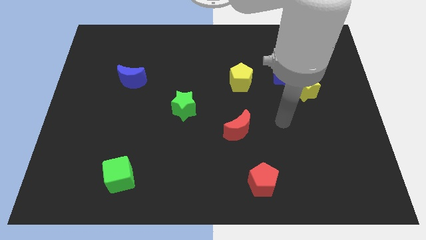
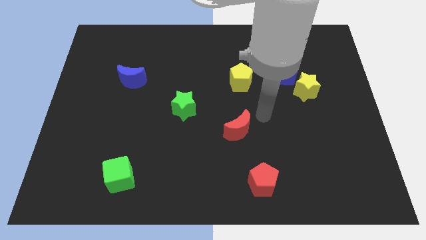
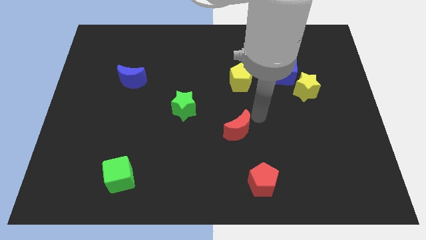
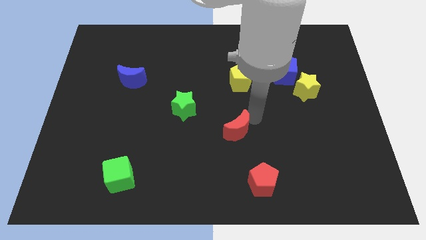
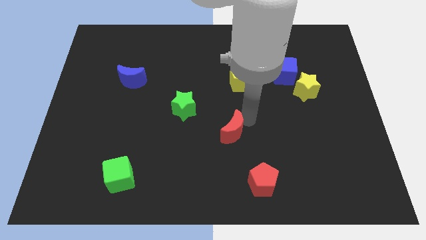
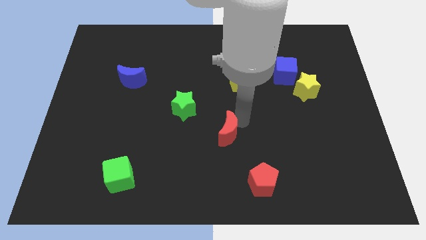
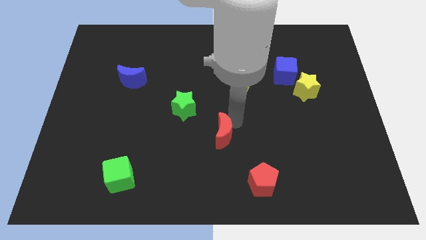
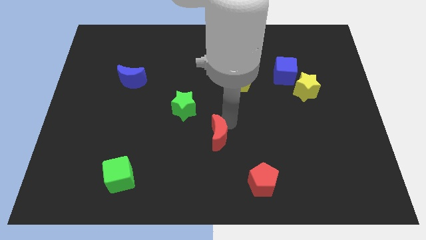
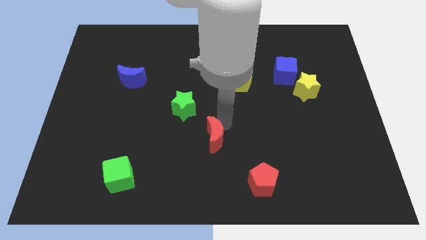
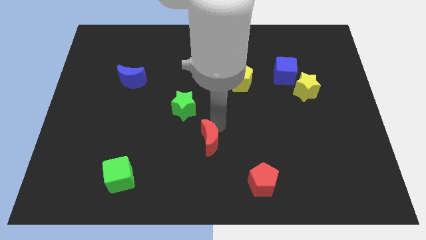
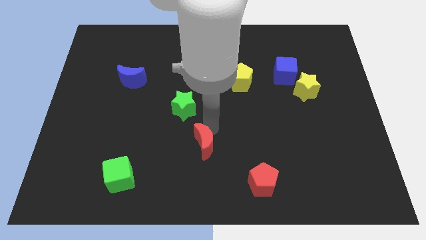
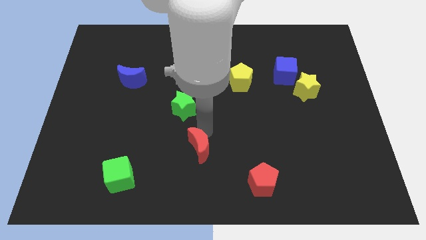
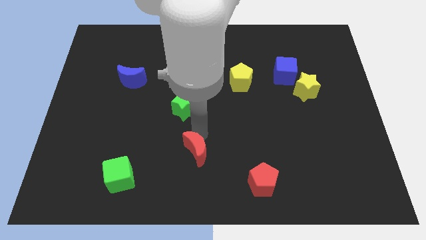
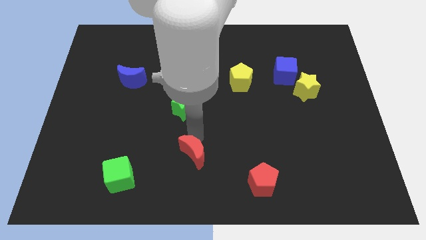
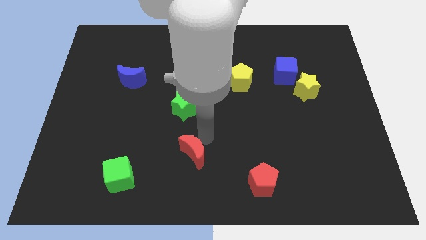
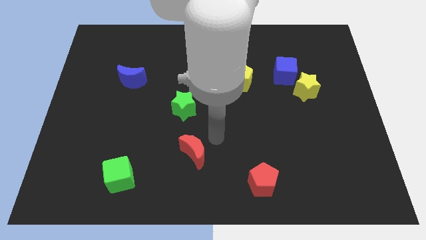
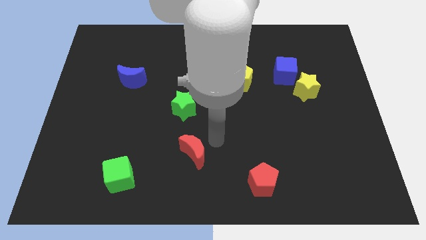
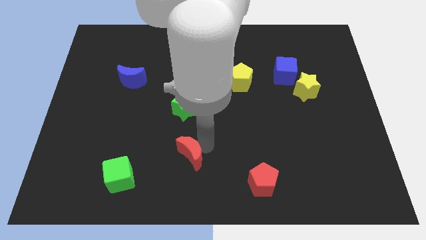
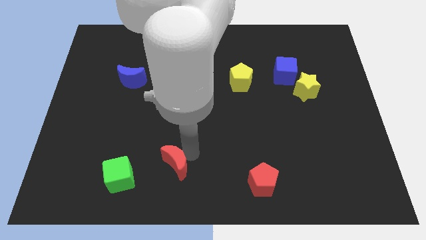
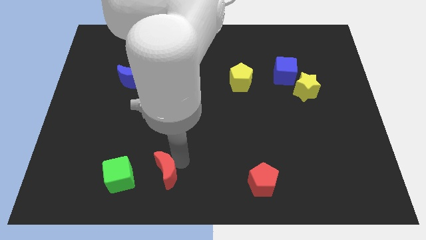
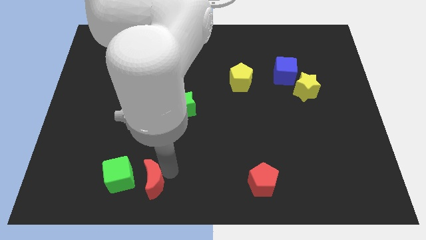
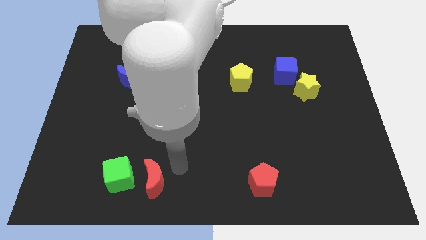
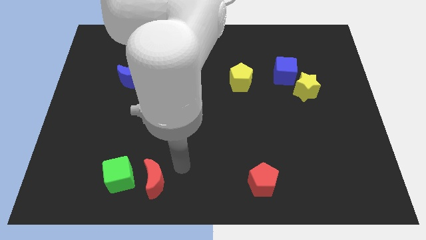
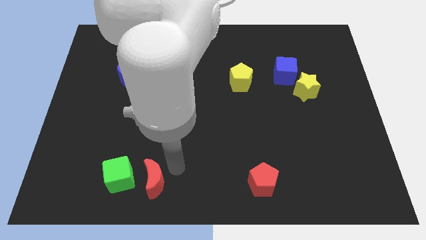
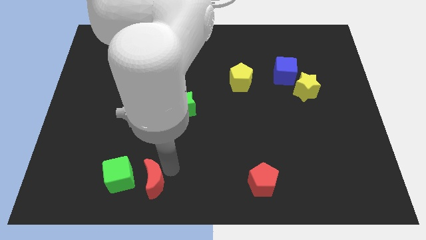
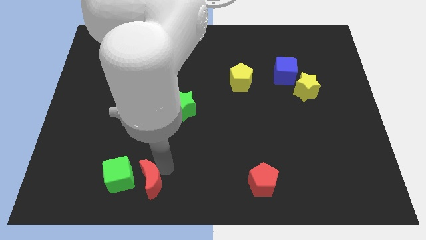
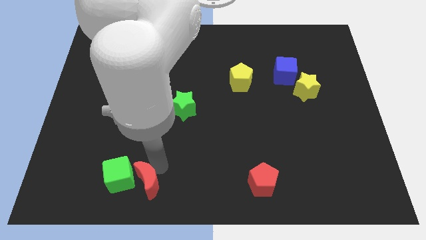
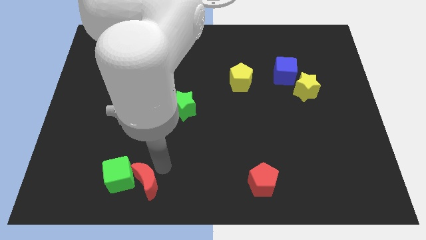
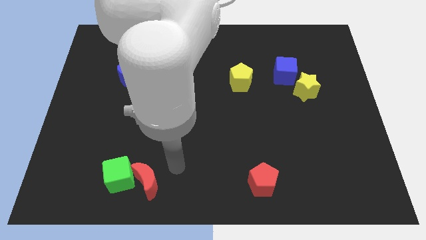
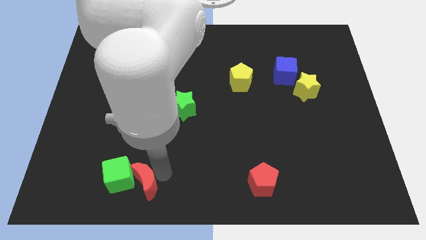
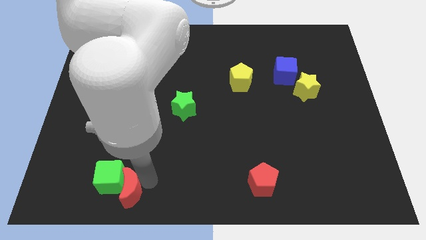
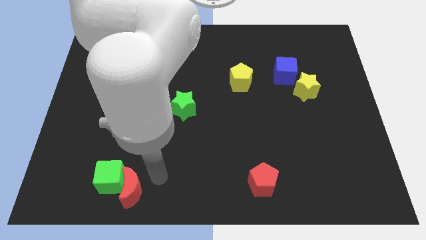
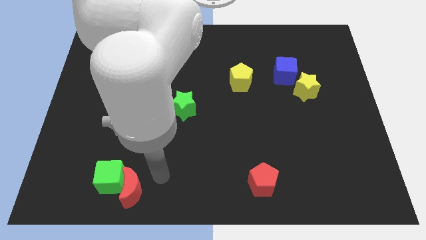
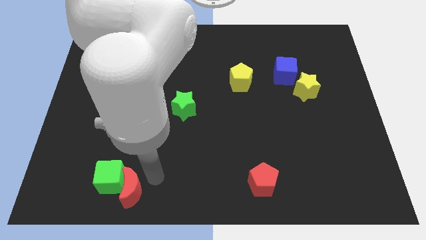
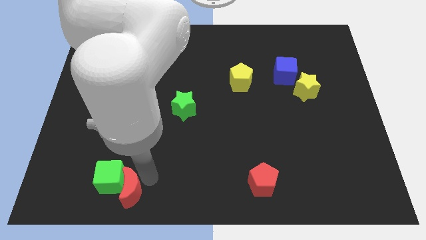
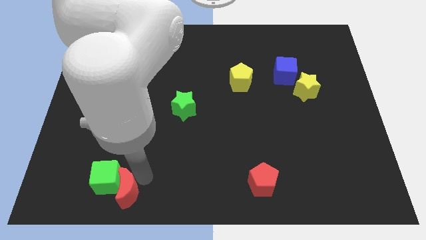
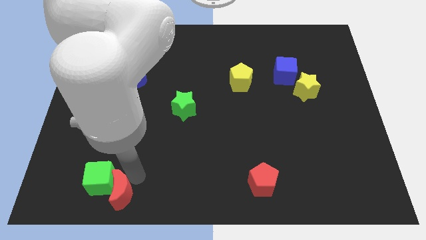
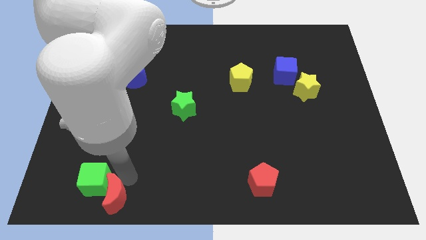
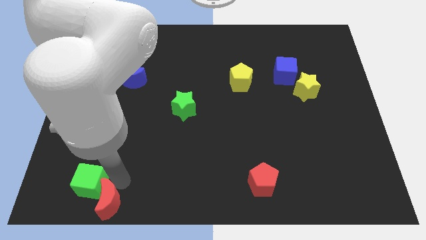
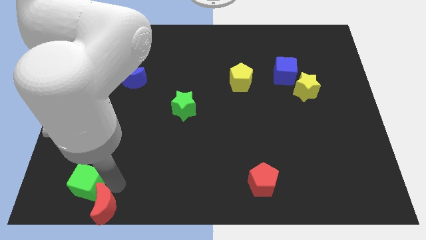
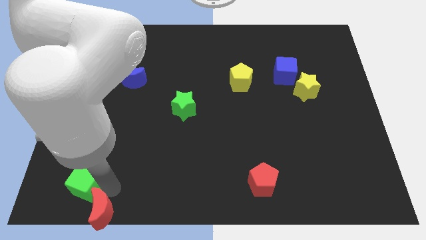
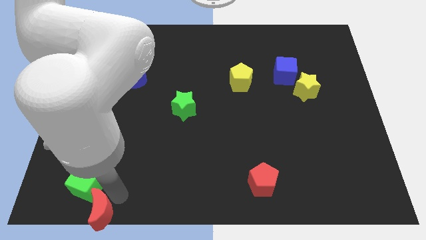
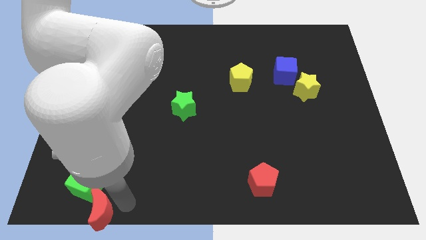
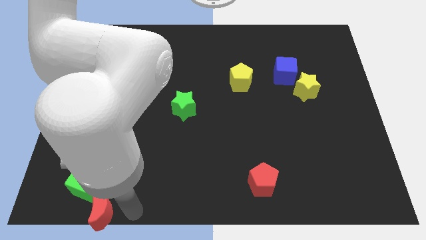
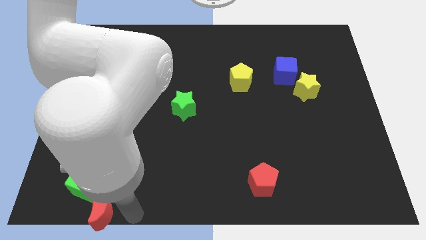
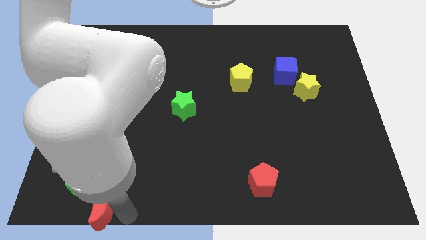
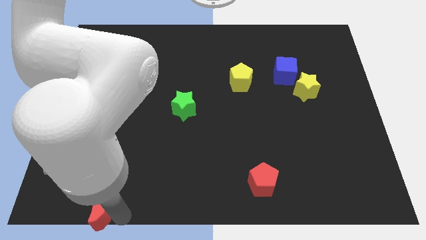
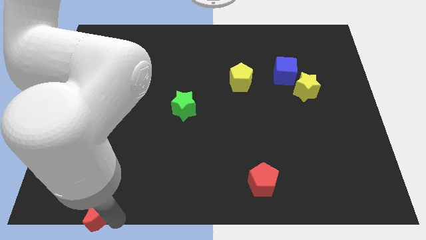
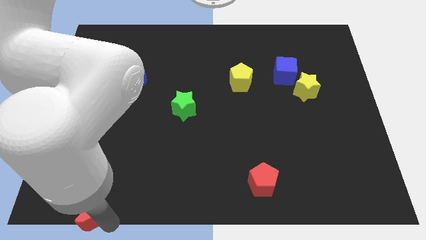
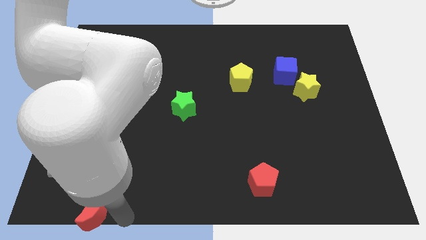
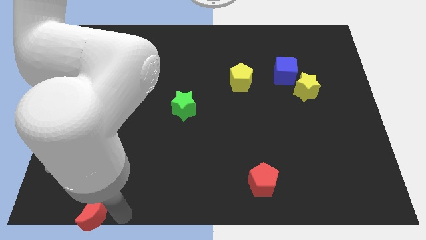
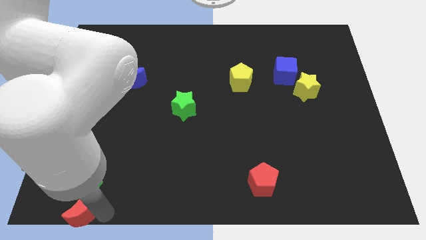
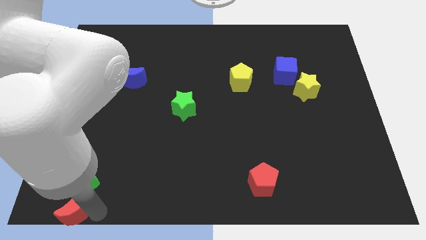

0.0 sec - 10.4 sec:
put the red moon to the bottom left corner

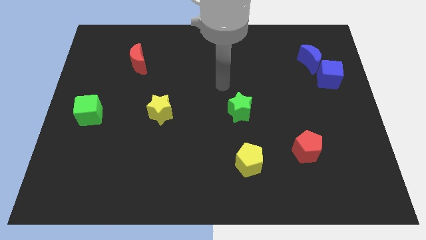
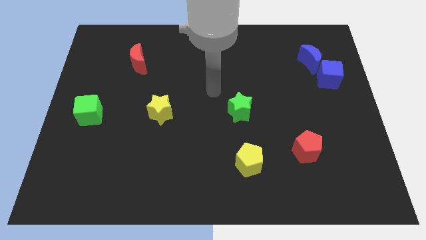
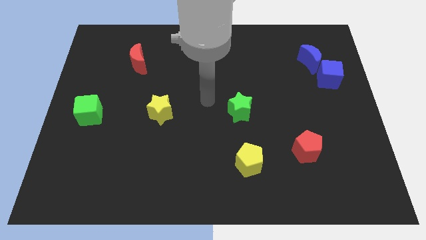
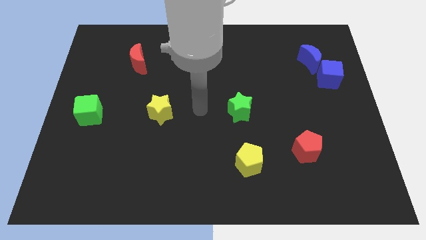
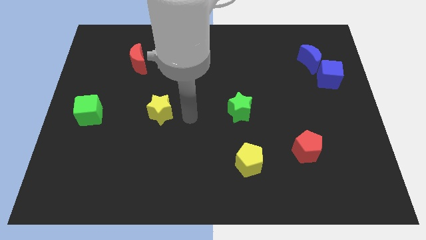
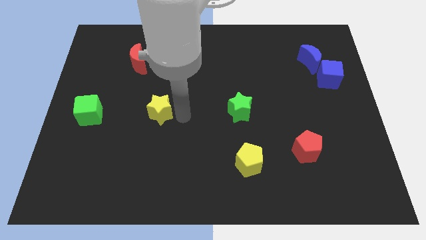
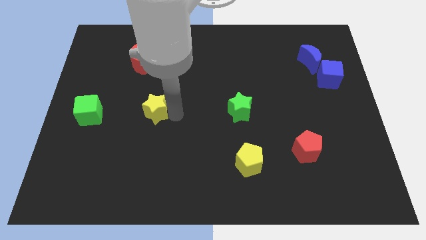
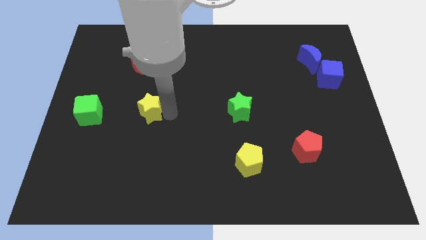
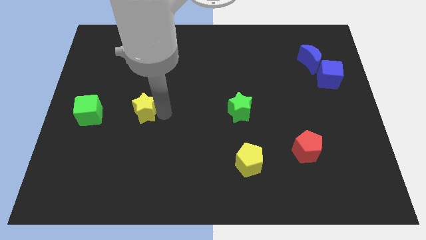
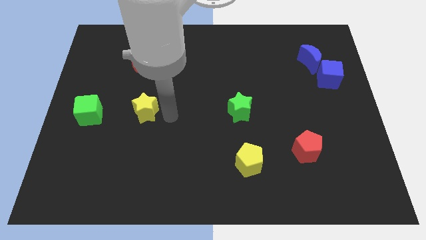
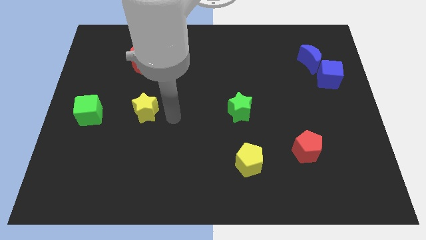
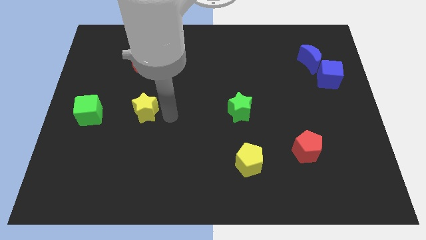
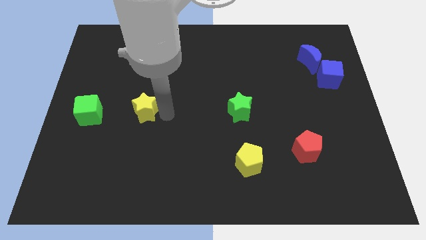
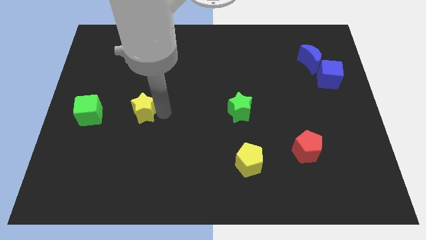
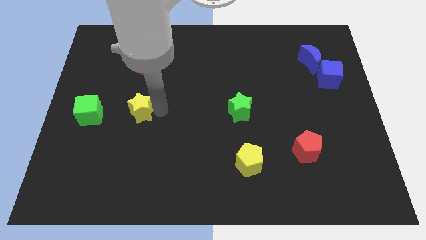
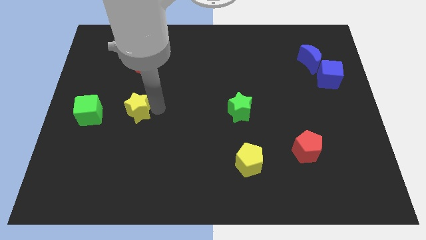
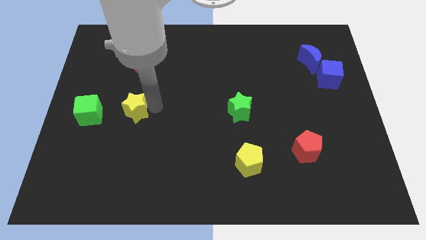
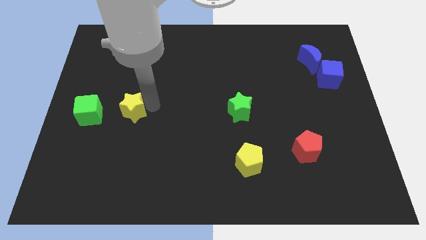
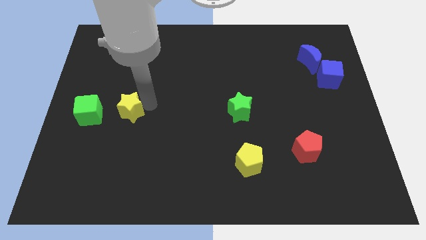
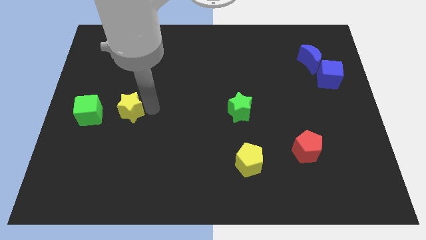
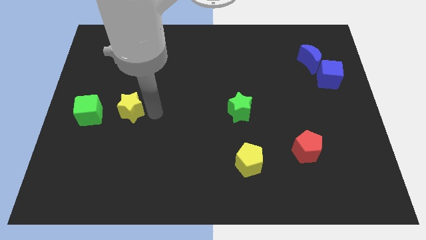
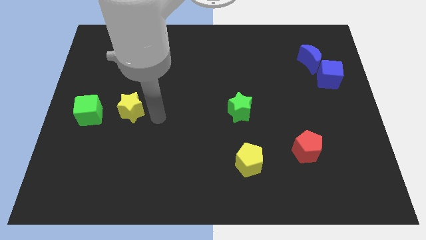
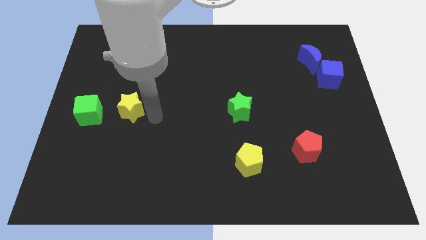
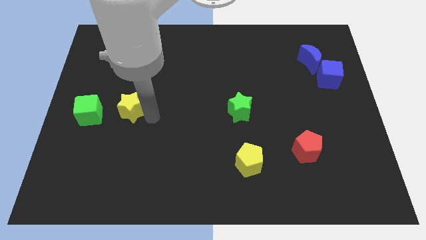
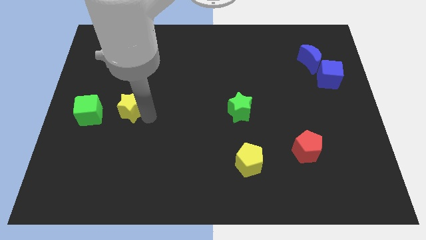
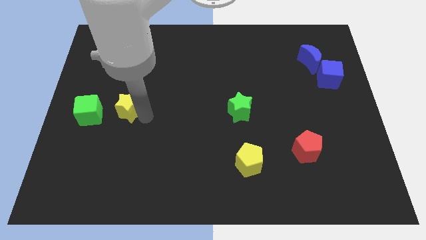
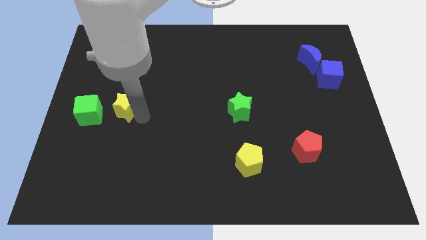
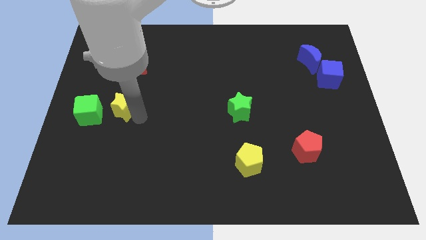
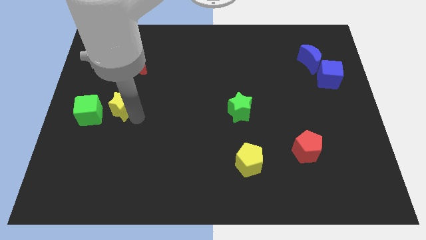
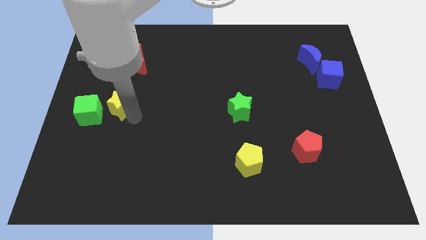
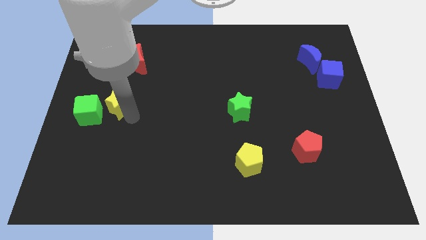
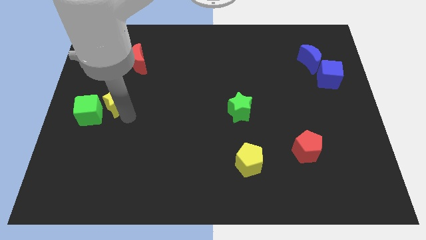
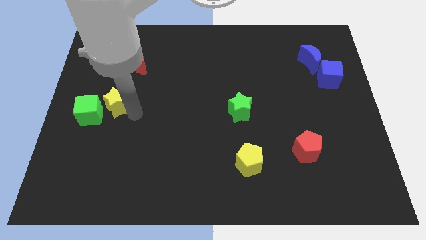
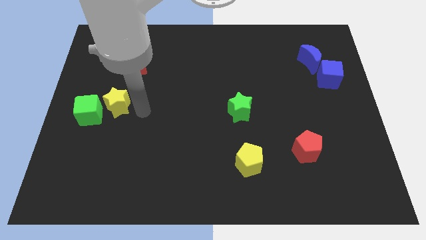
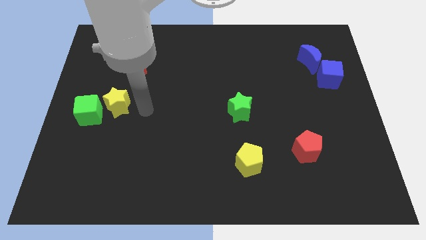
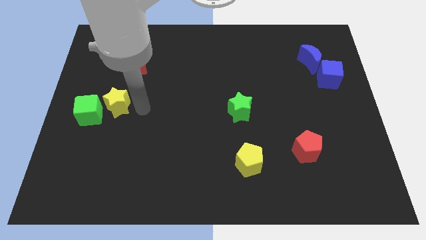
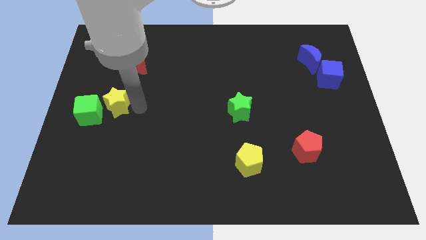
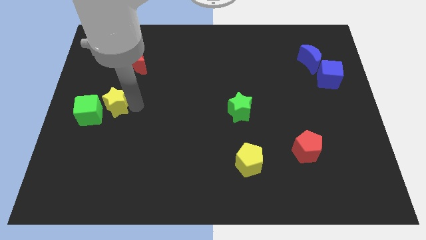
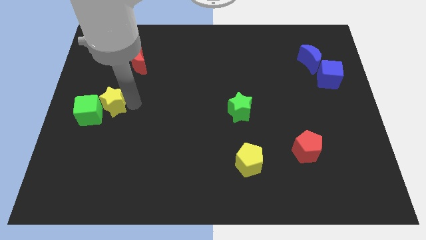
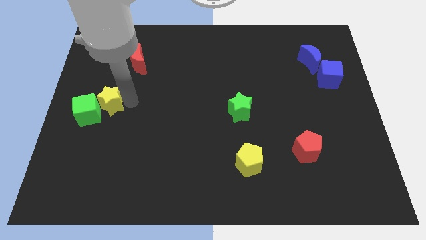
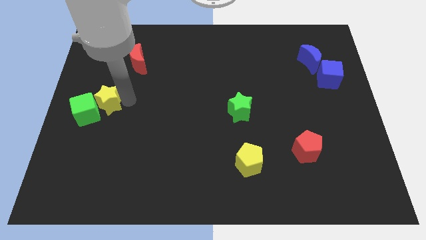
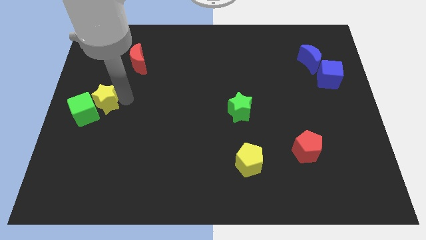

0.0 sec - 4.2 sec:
move the yellow star to the left side of the board
